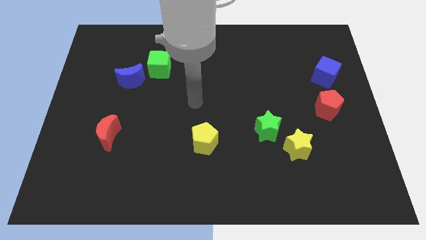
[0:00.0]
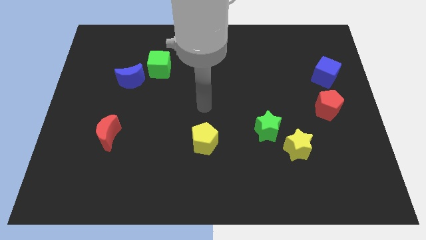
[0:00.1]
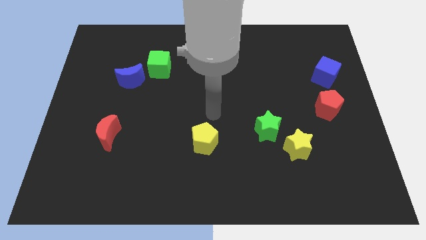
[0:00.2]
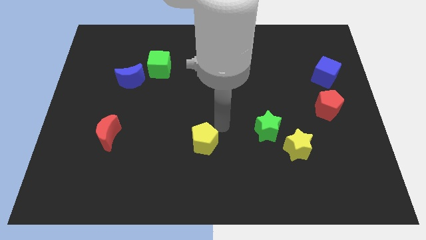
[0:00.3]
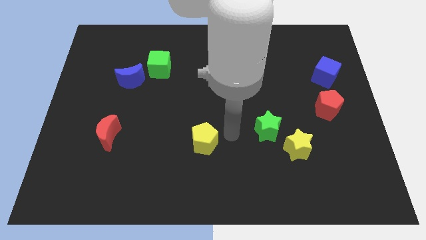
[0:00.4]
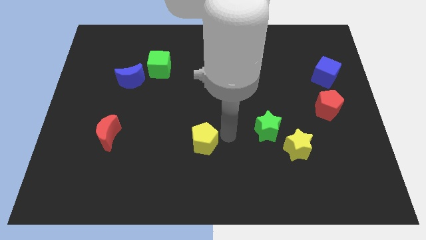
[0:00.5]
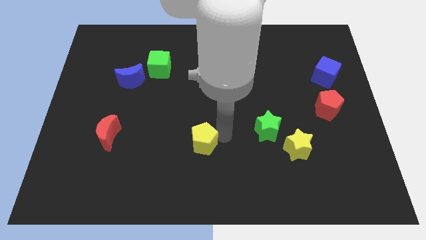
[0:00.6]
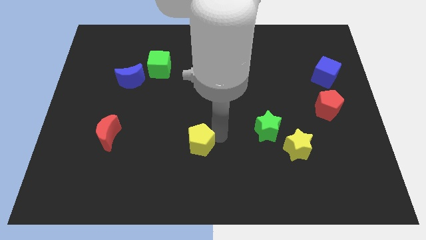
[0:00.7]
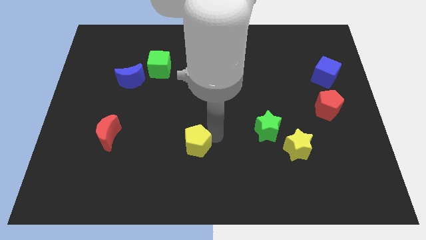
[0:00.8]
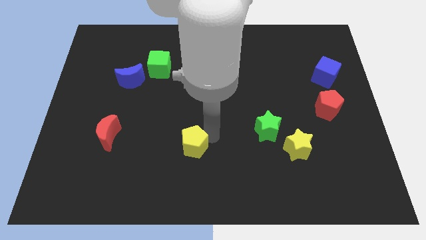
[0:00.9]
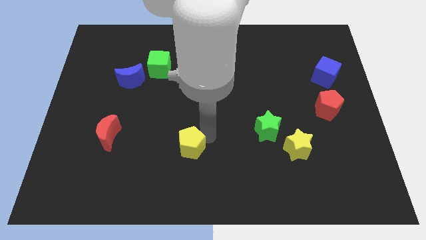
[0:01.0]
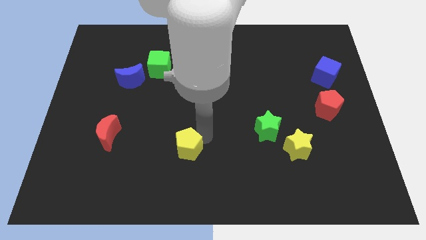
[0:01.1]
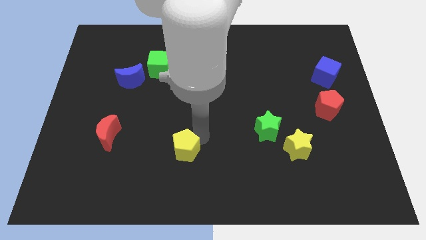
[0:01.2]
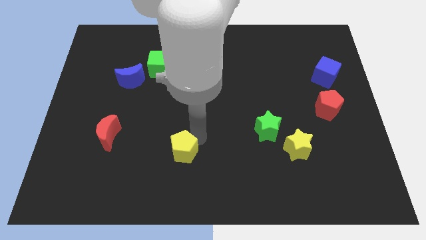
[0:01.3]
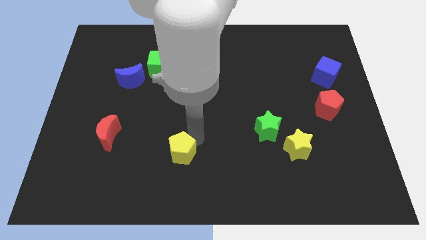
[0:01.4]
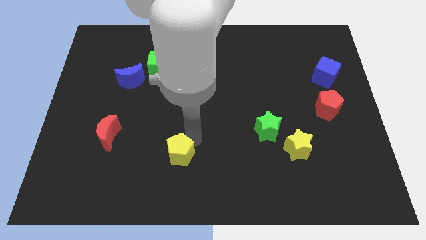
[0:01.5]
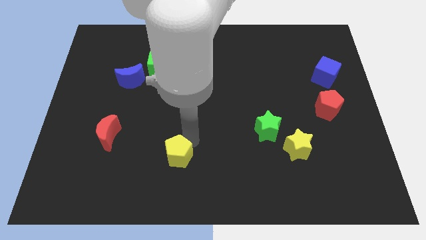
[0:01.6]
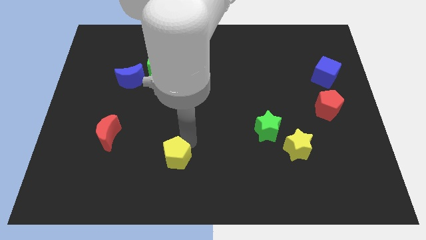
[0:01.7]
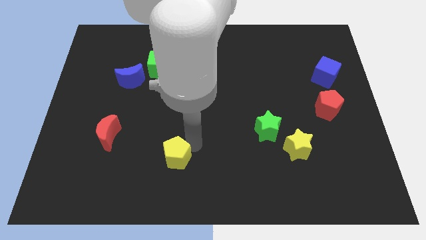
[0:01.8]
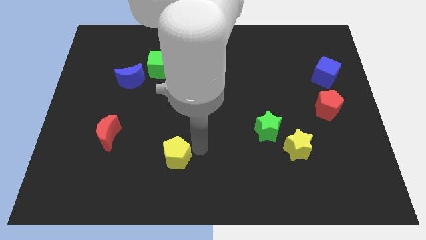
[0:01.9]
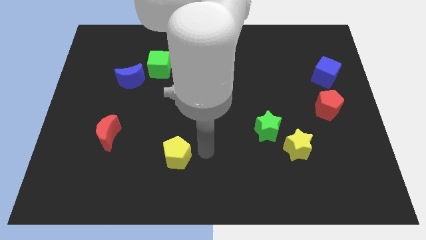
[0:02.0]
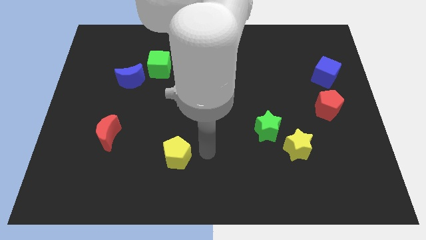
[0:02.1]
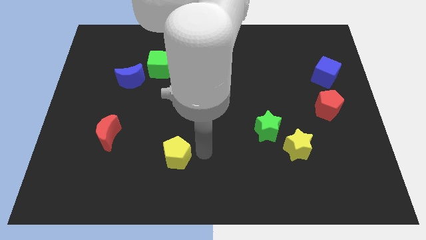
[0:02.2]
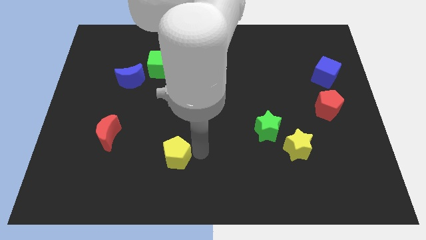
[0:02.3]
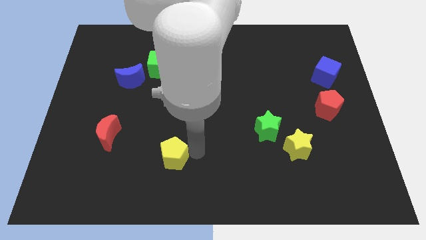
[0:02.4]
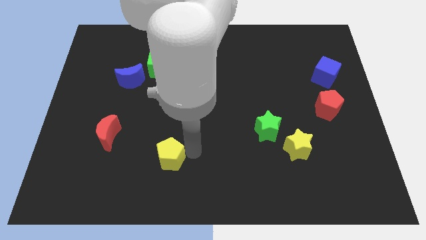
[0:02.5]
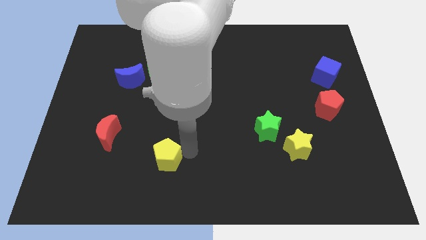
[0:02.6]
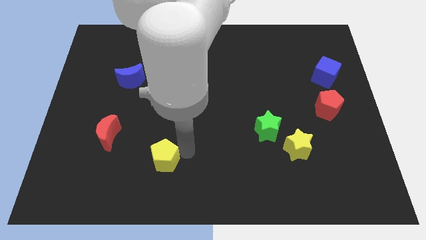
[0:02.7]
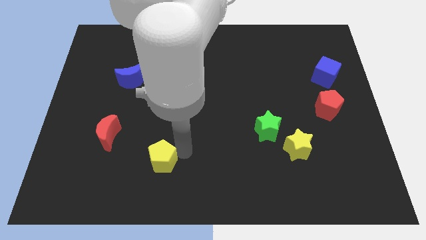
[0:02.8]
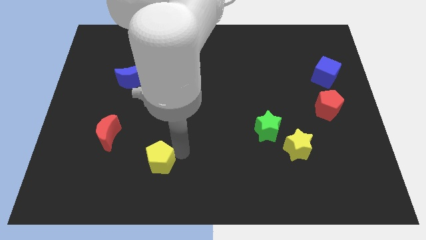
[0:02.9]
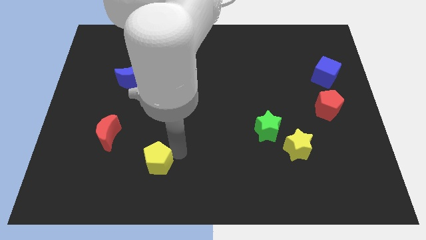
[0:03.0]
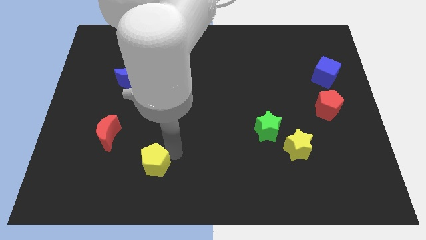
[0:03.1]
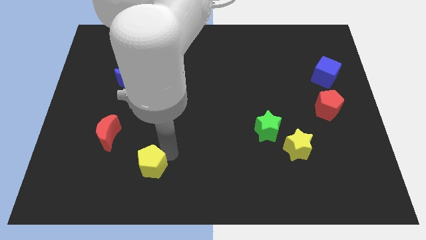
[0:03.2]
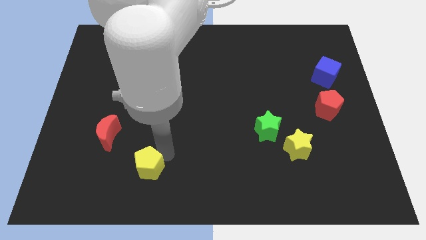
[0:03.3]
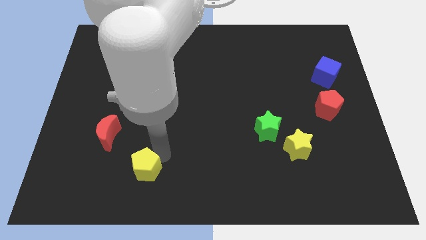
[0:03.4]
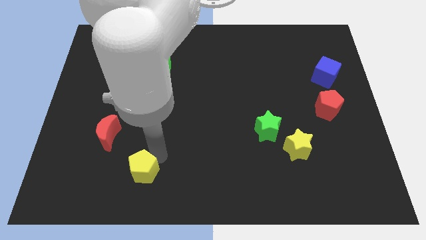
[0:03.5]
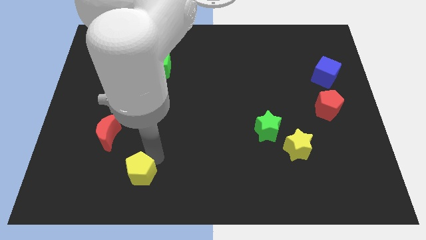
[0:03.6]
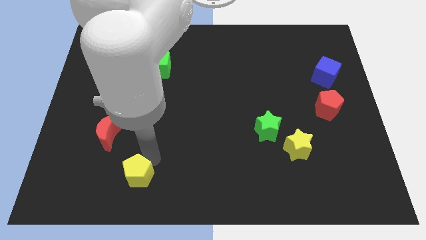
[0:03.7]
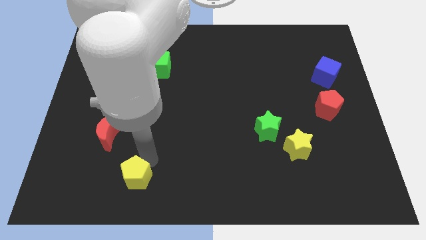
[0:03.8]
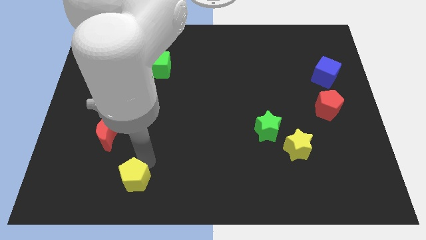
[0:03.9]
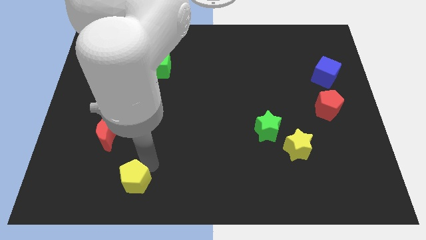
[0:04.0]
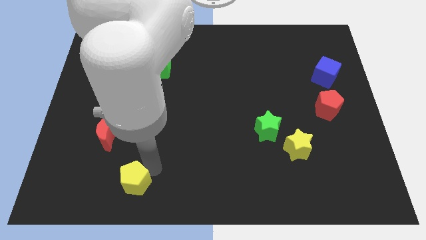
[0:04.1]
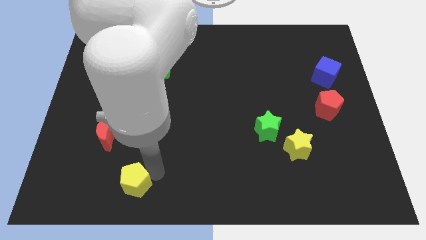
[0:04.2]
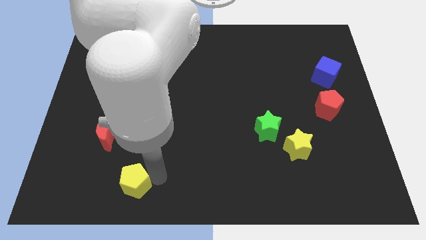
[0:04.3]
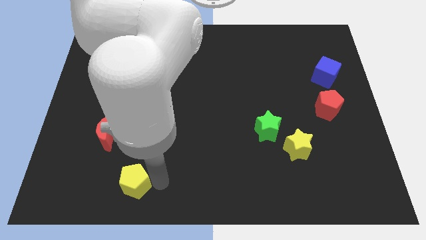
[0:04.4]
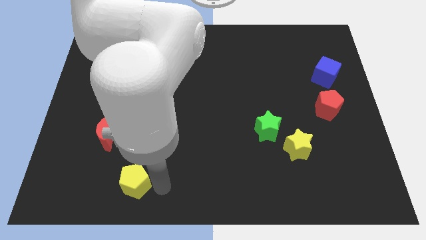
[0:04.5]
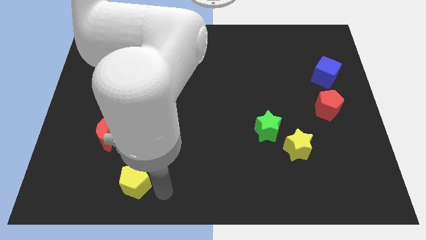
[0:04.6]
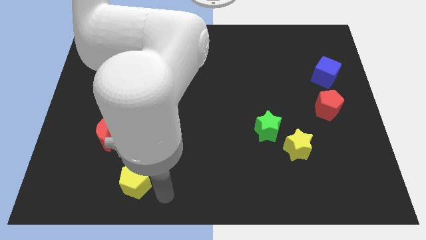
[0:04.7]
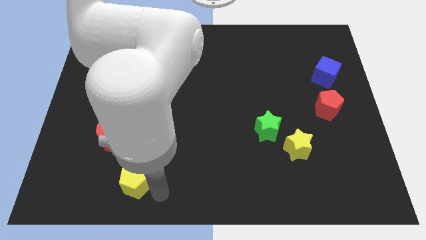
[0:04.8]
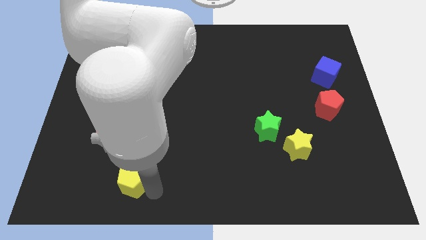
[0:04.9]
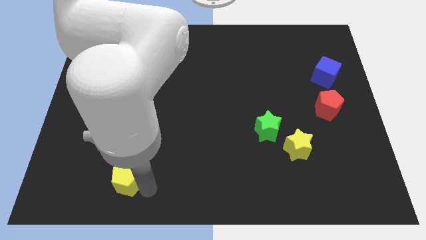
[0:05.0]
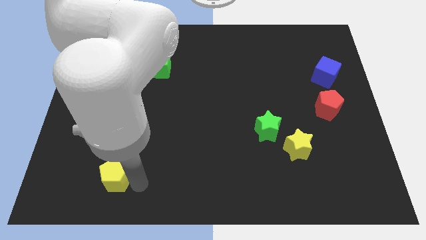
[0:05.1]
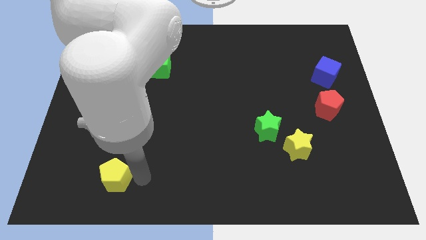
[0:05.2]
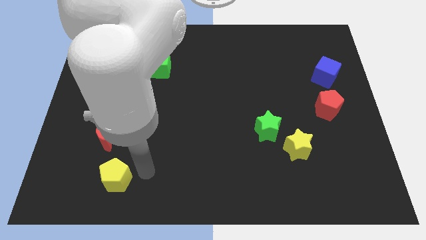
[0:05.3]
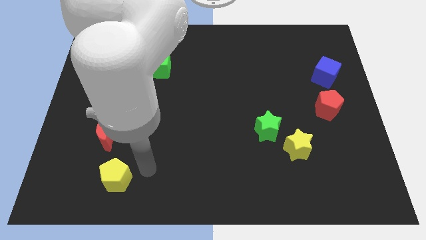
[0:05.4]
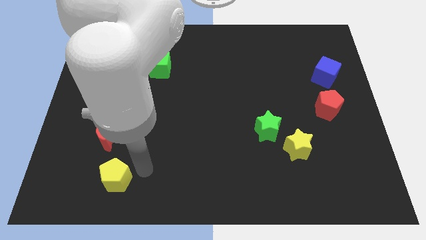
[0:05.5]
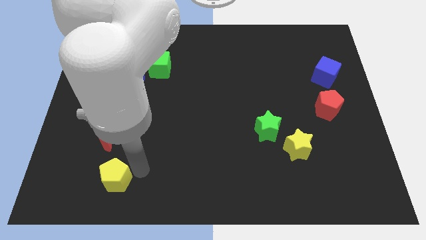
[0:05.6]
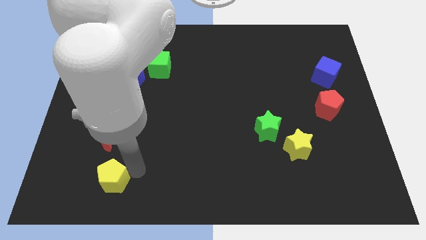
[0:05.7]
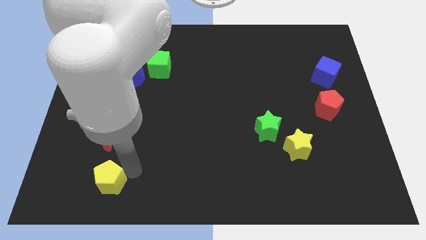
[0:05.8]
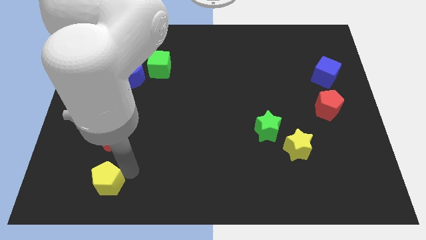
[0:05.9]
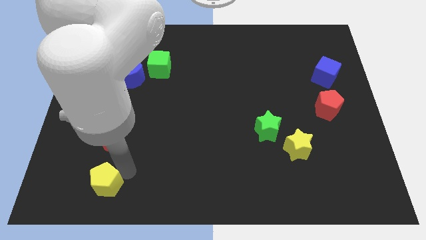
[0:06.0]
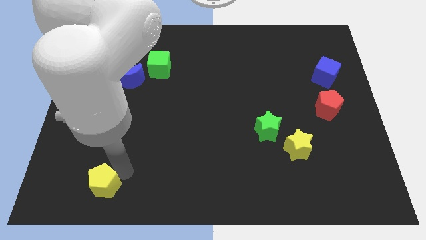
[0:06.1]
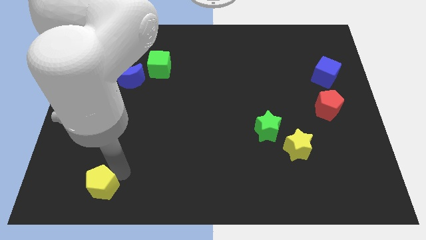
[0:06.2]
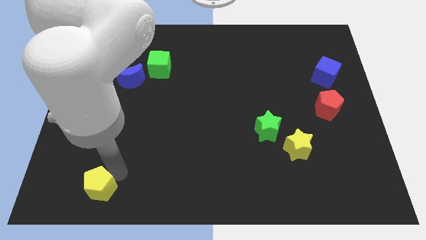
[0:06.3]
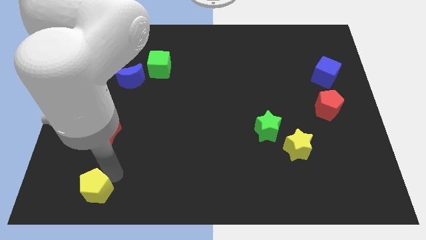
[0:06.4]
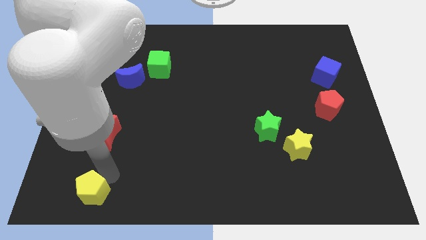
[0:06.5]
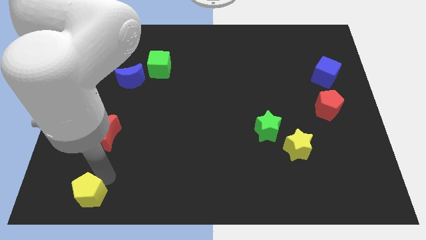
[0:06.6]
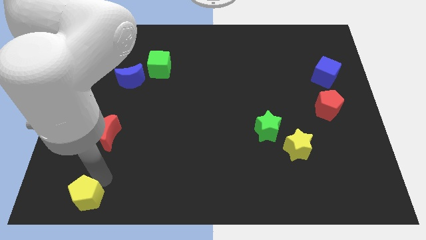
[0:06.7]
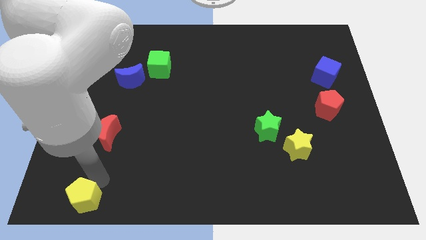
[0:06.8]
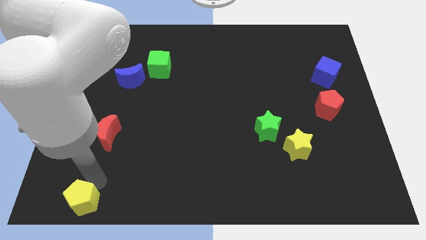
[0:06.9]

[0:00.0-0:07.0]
put the yellow pentagon to the bottom left
